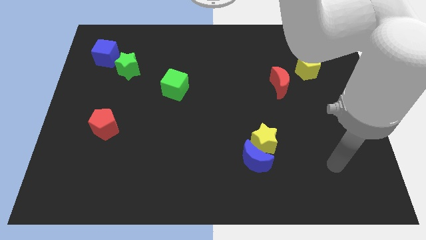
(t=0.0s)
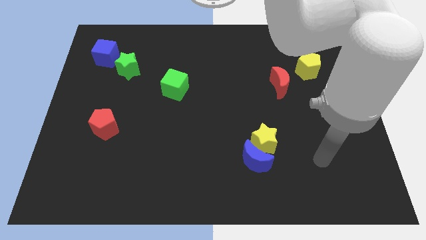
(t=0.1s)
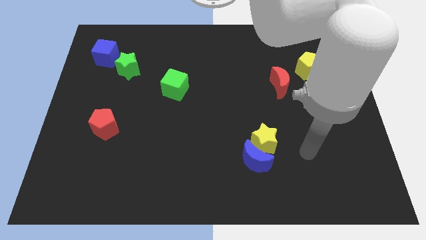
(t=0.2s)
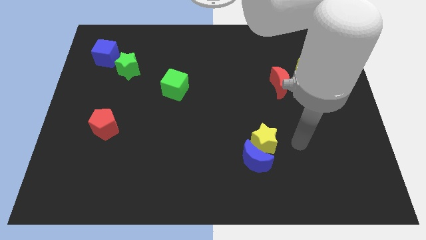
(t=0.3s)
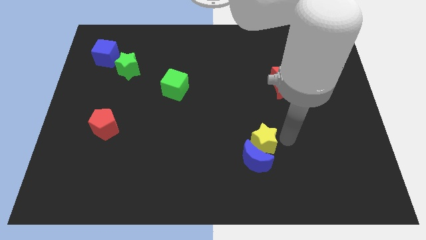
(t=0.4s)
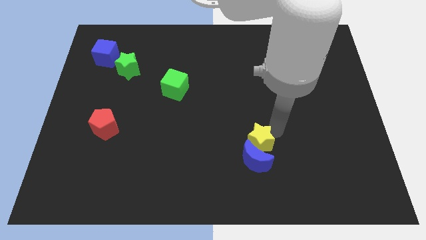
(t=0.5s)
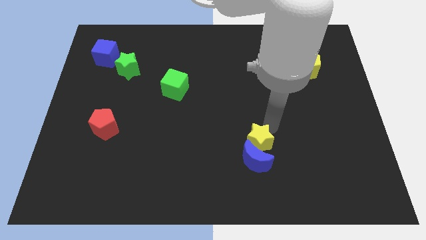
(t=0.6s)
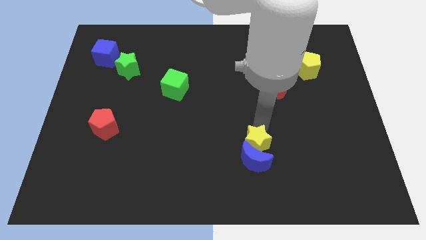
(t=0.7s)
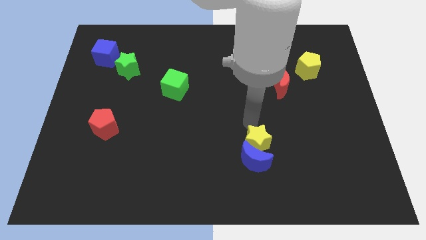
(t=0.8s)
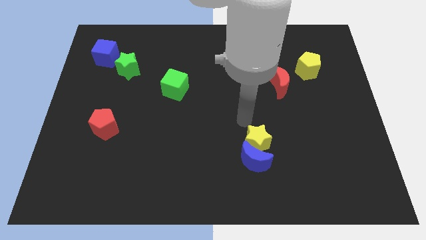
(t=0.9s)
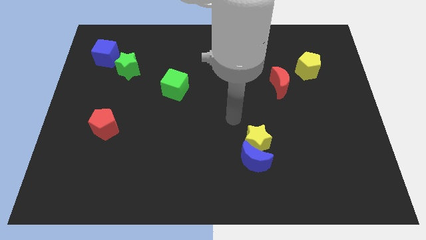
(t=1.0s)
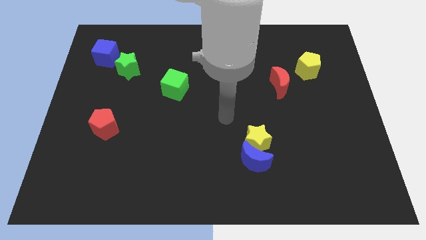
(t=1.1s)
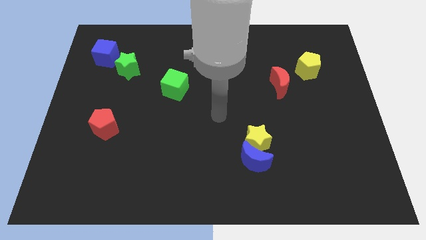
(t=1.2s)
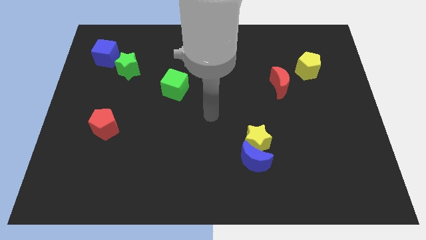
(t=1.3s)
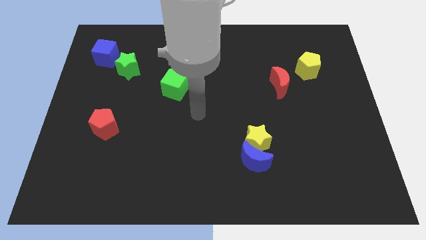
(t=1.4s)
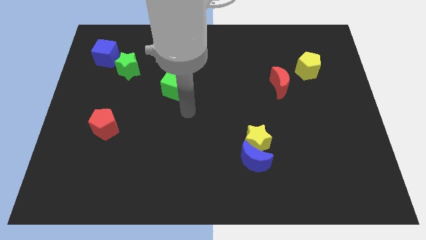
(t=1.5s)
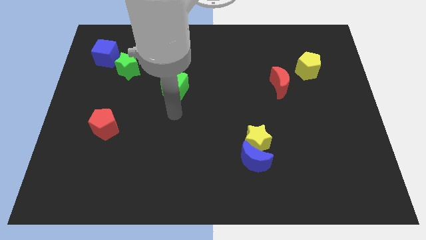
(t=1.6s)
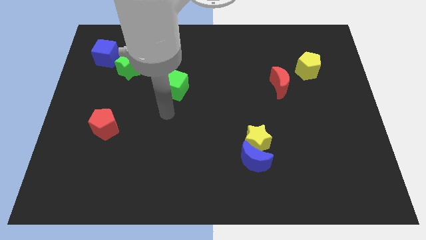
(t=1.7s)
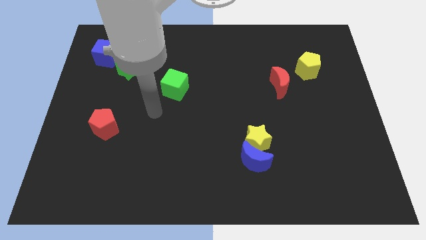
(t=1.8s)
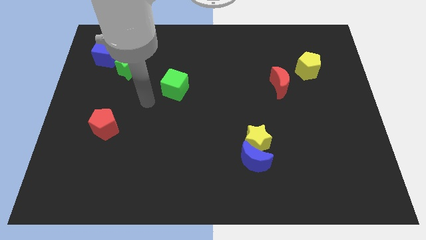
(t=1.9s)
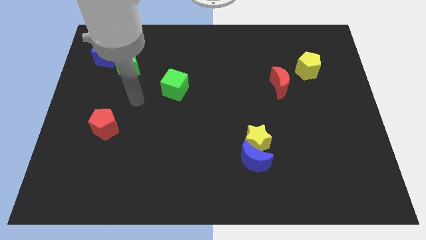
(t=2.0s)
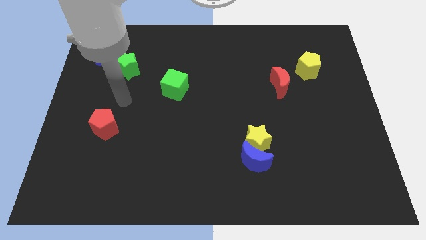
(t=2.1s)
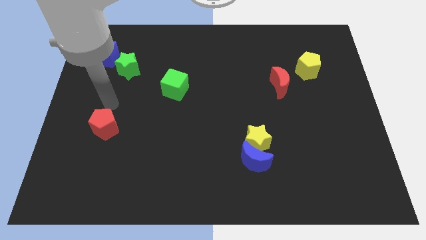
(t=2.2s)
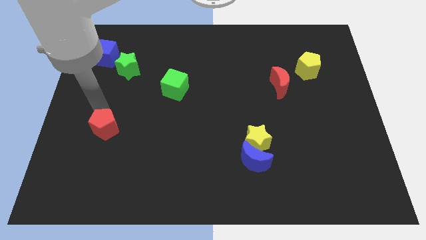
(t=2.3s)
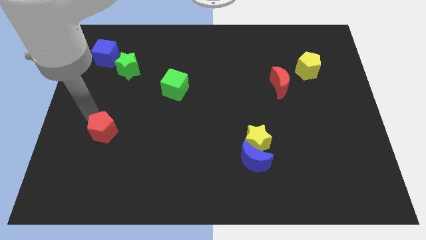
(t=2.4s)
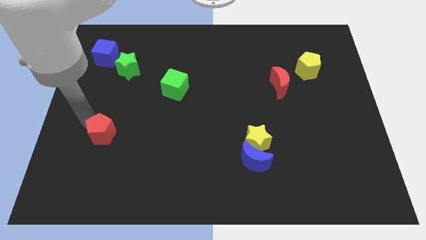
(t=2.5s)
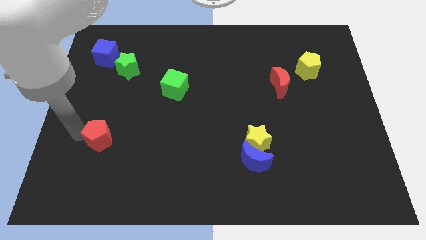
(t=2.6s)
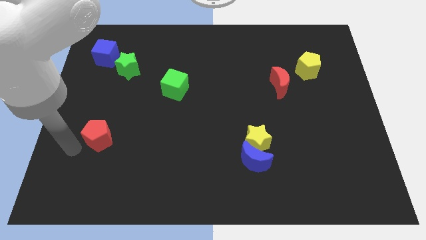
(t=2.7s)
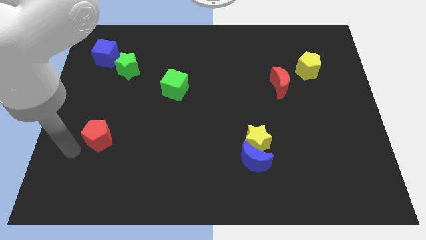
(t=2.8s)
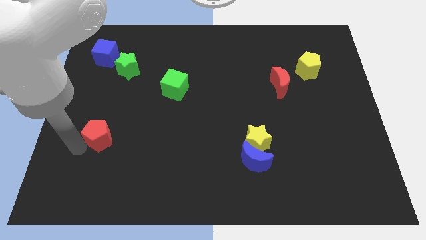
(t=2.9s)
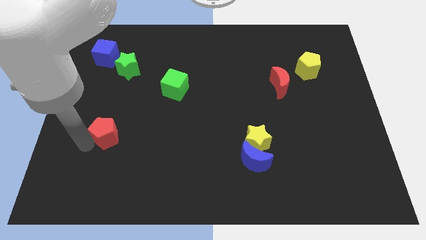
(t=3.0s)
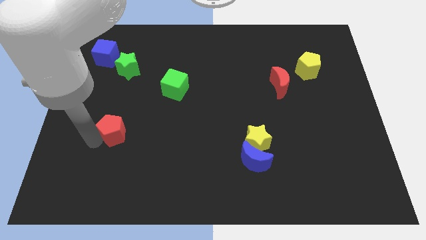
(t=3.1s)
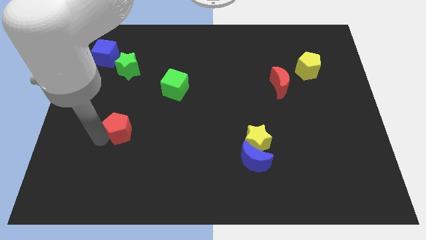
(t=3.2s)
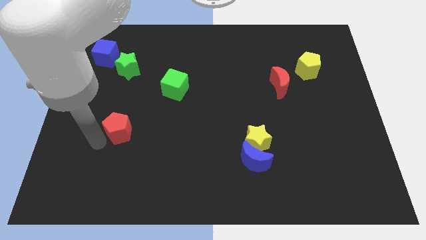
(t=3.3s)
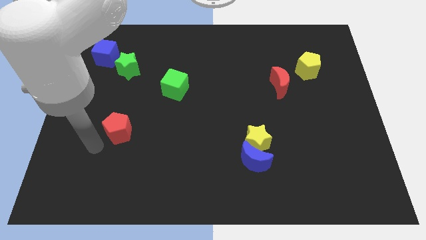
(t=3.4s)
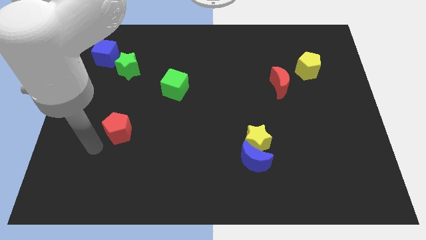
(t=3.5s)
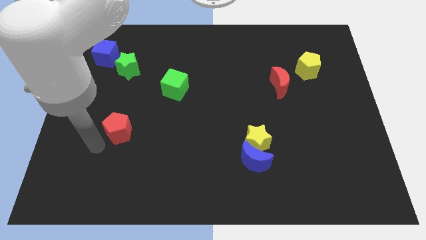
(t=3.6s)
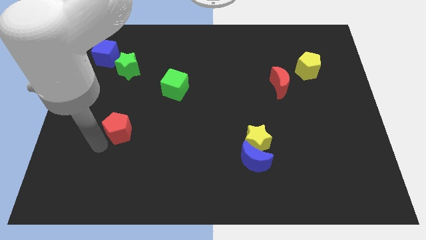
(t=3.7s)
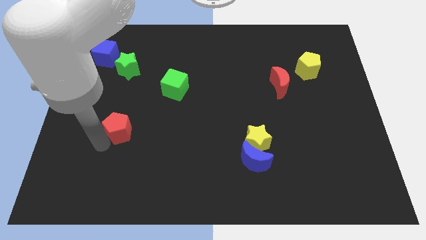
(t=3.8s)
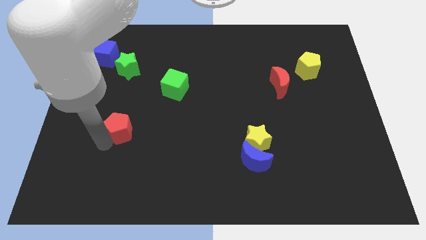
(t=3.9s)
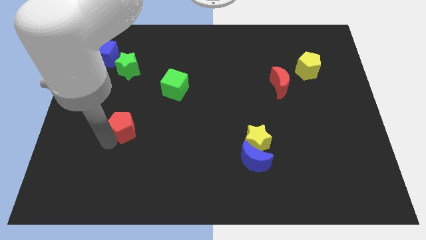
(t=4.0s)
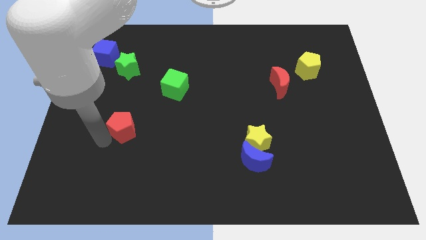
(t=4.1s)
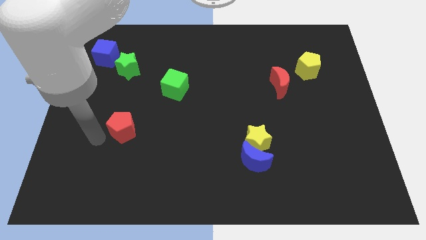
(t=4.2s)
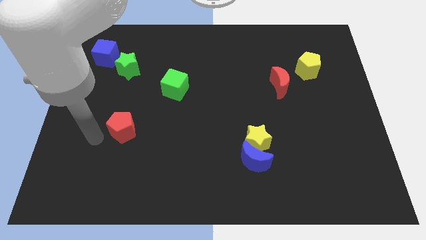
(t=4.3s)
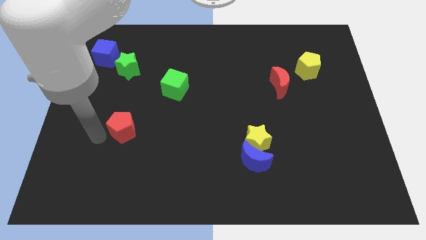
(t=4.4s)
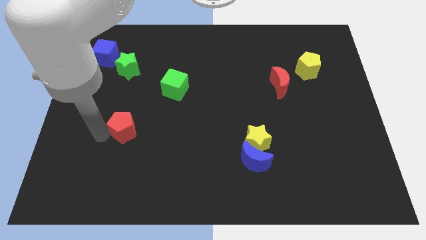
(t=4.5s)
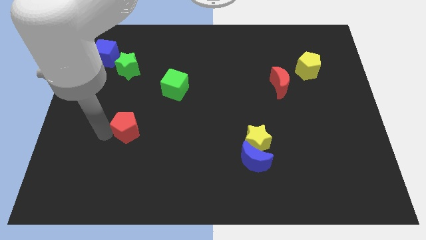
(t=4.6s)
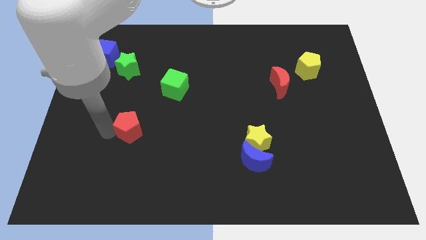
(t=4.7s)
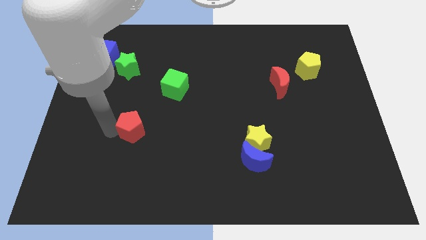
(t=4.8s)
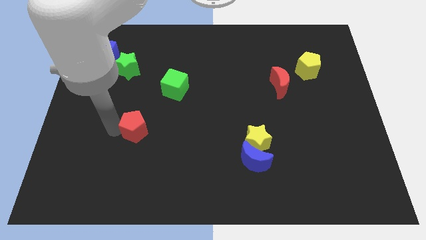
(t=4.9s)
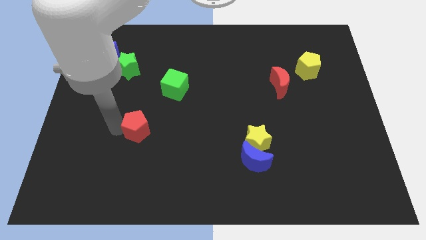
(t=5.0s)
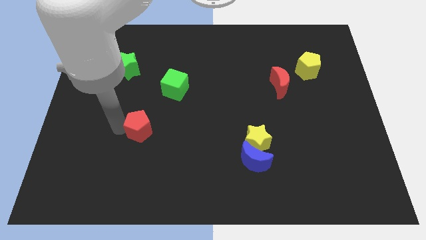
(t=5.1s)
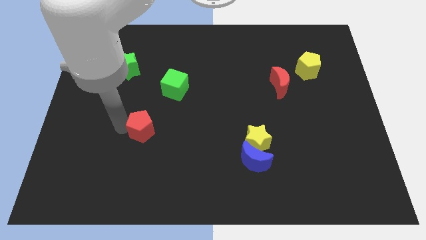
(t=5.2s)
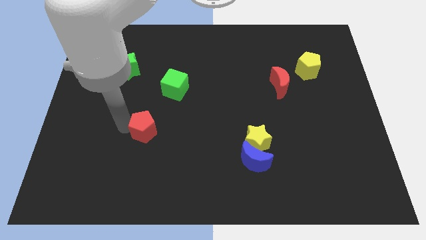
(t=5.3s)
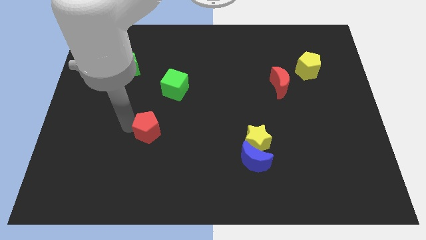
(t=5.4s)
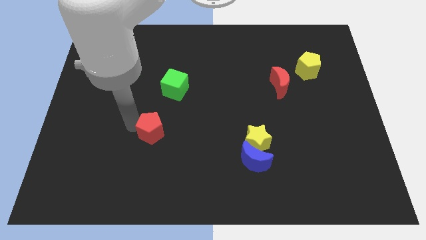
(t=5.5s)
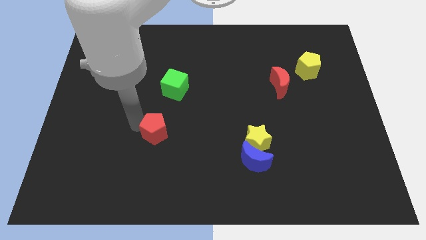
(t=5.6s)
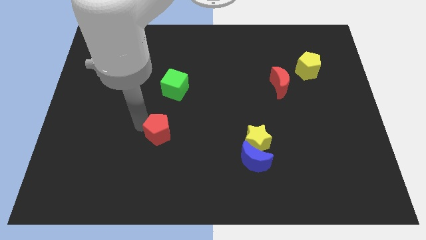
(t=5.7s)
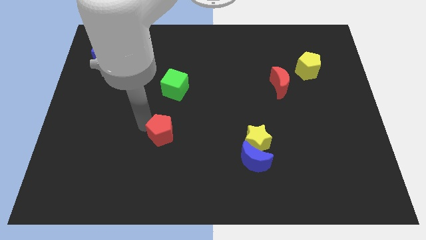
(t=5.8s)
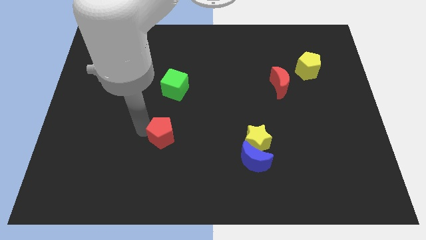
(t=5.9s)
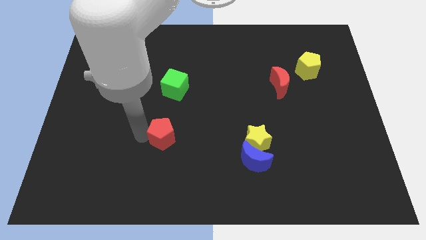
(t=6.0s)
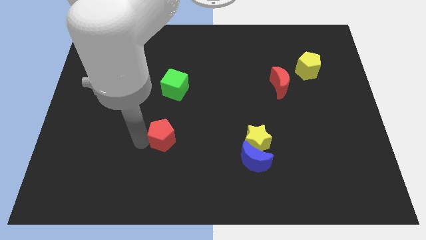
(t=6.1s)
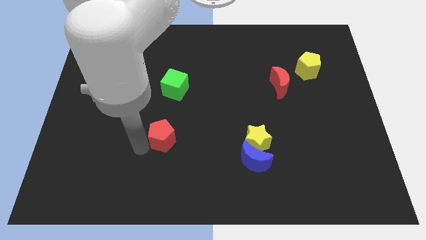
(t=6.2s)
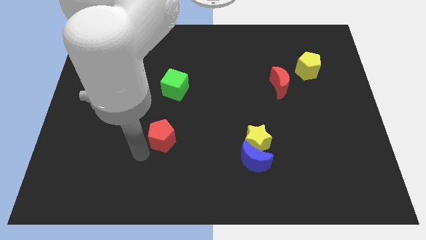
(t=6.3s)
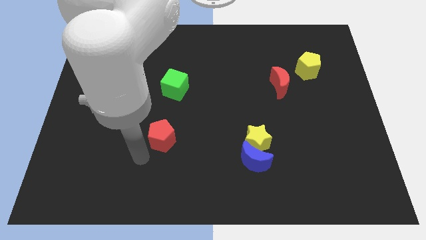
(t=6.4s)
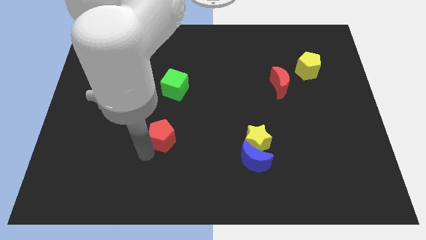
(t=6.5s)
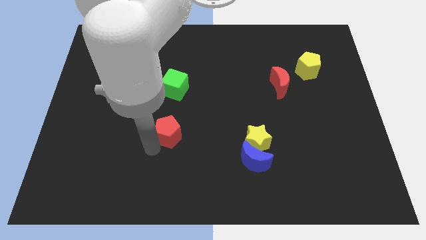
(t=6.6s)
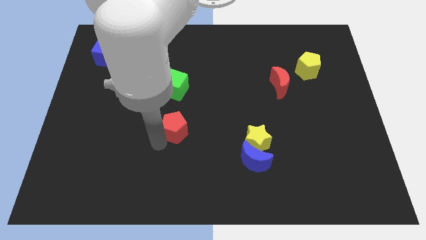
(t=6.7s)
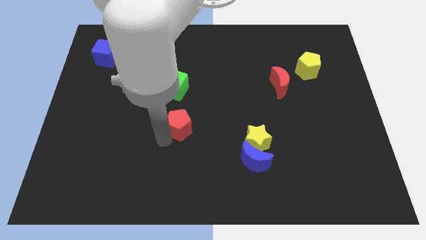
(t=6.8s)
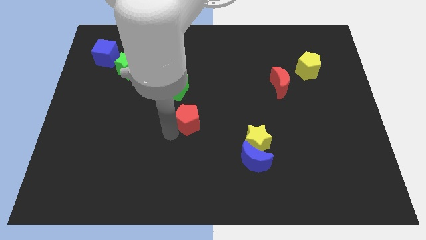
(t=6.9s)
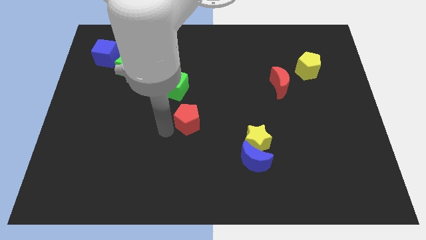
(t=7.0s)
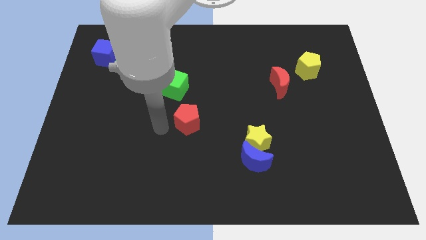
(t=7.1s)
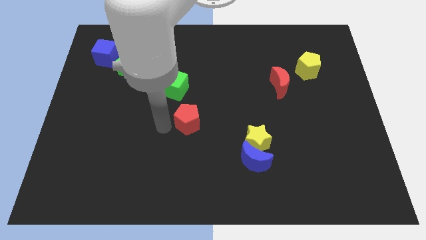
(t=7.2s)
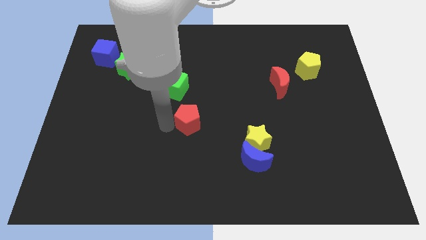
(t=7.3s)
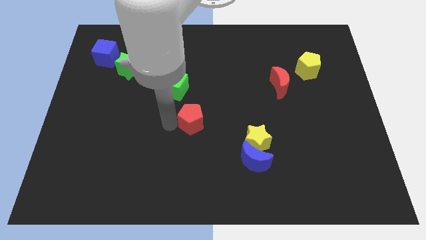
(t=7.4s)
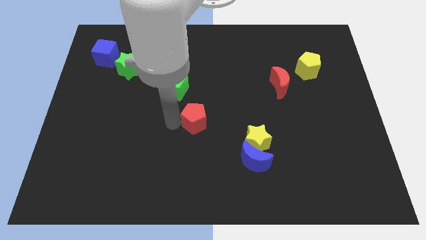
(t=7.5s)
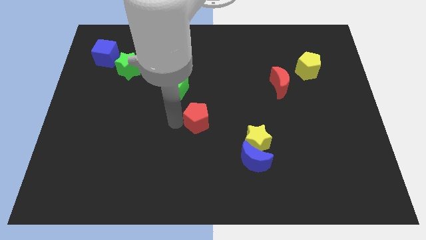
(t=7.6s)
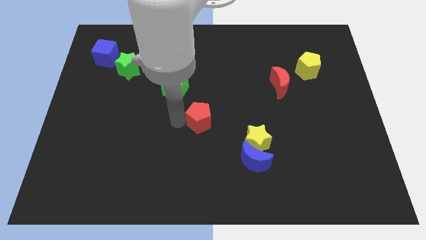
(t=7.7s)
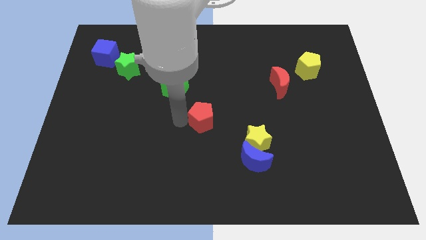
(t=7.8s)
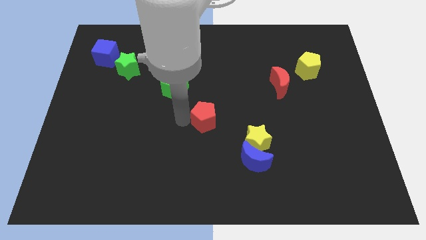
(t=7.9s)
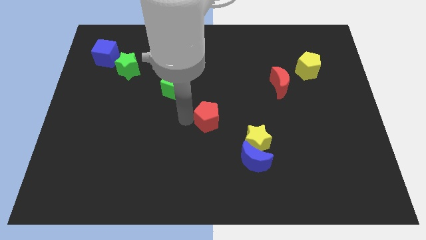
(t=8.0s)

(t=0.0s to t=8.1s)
put the red pentagon diagonally up and to the left of the yellow star
